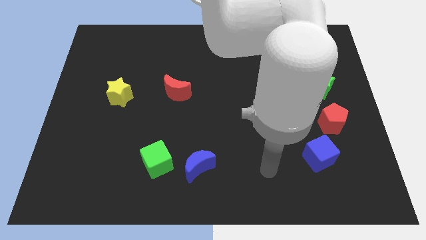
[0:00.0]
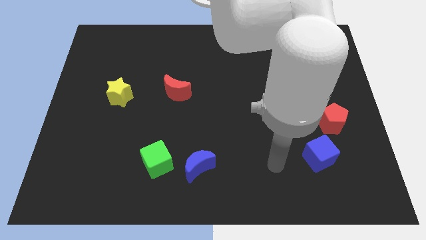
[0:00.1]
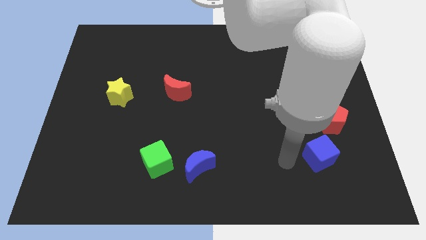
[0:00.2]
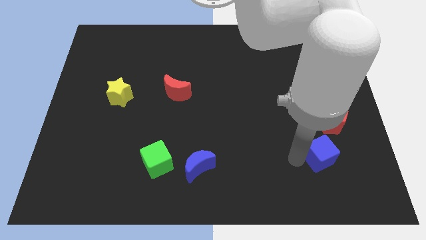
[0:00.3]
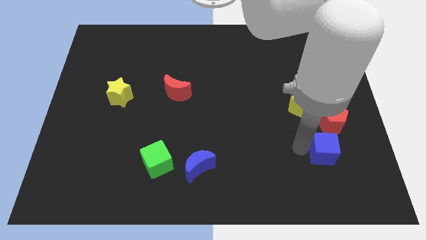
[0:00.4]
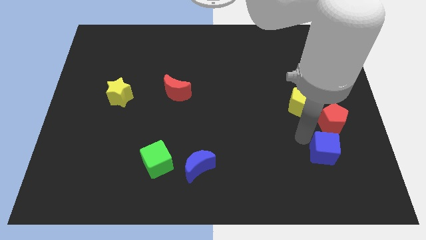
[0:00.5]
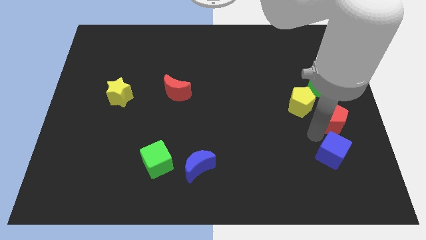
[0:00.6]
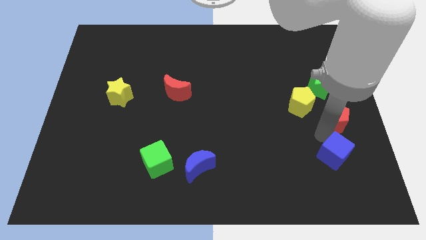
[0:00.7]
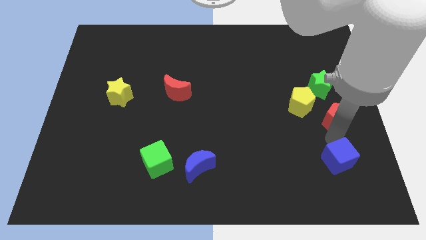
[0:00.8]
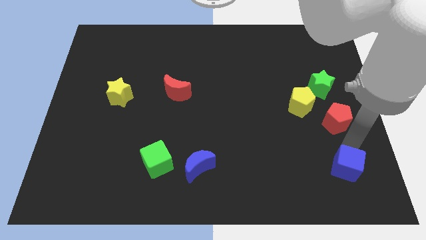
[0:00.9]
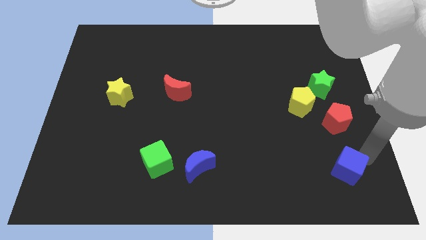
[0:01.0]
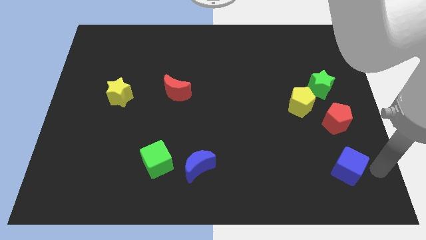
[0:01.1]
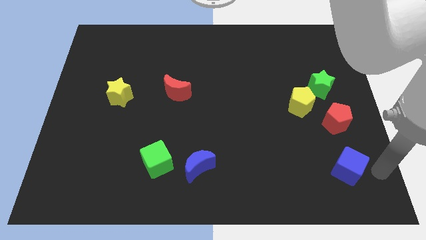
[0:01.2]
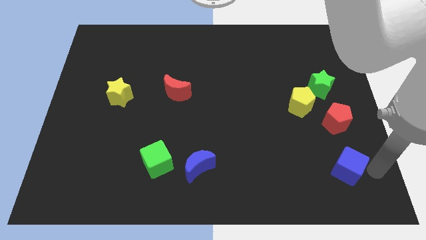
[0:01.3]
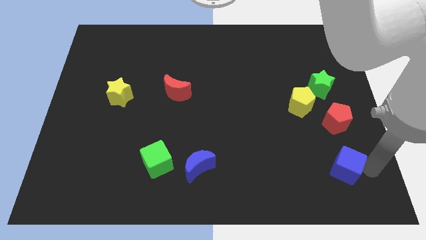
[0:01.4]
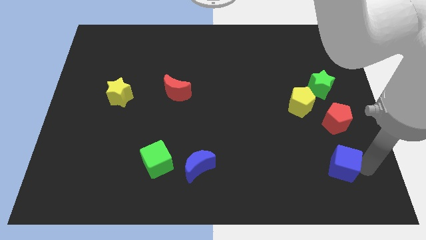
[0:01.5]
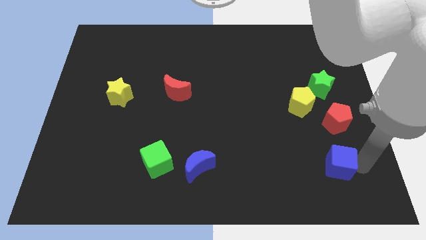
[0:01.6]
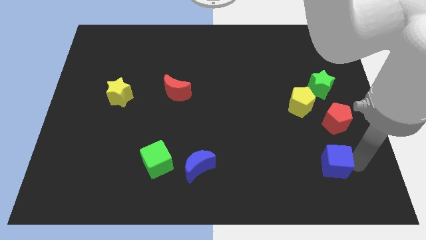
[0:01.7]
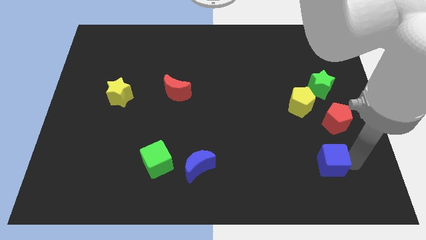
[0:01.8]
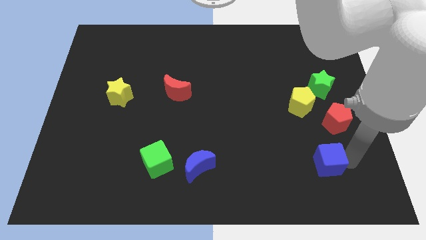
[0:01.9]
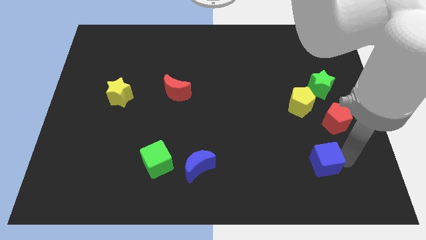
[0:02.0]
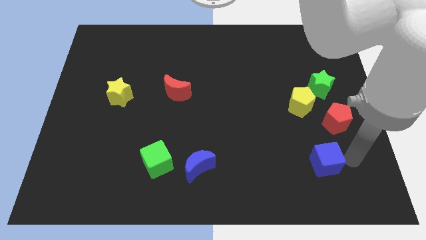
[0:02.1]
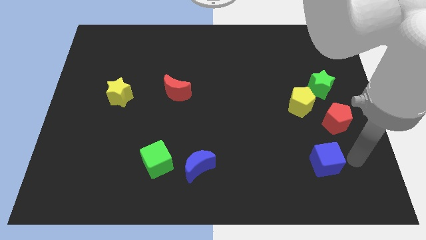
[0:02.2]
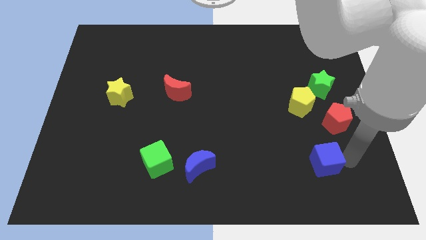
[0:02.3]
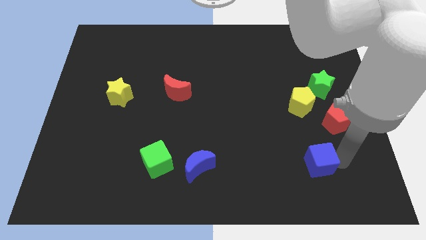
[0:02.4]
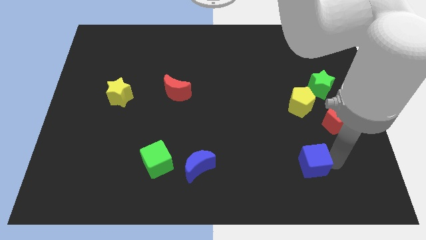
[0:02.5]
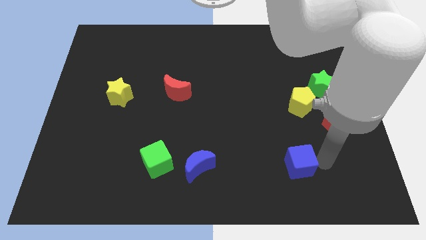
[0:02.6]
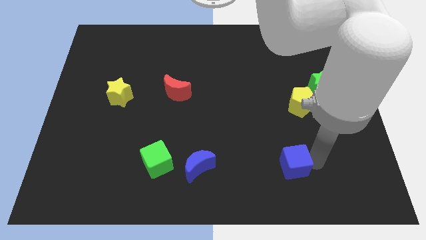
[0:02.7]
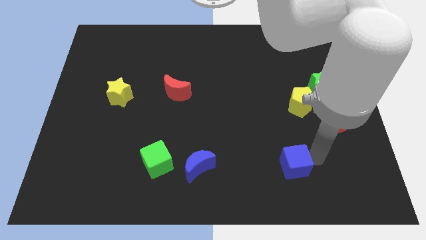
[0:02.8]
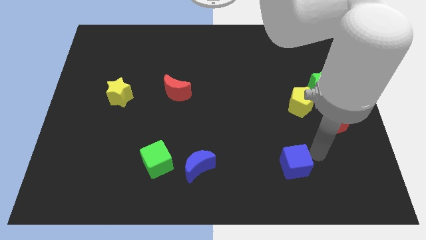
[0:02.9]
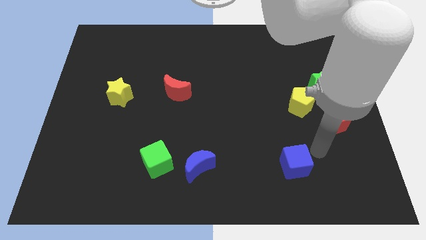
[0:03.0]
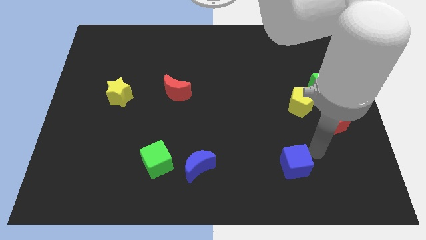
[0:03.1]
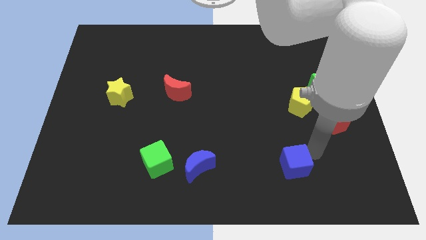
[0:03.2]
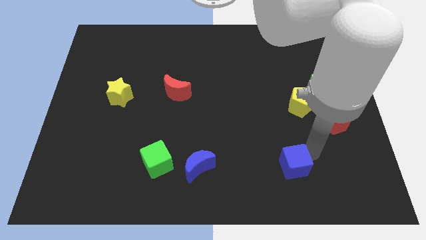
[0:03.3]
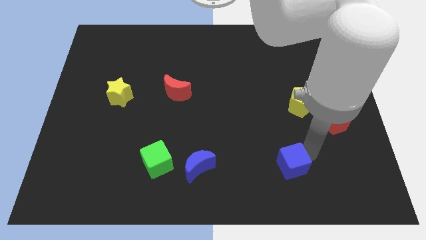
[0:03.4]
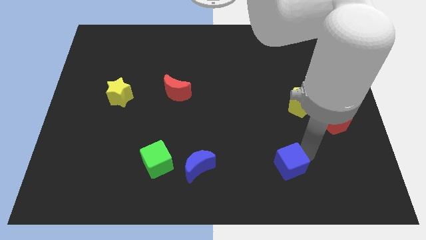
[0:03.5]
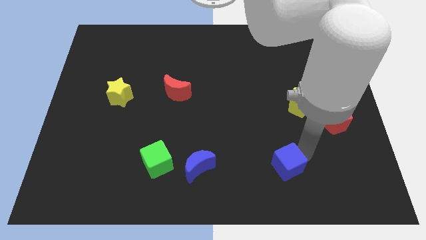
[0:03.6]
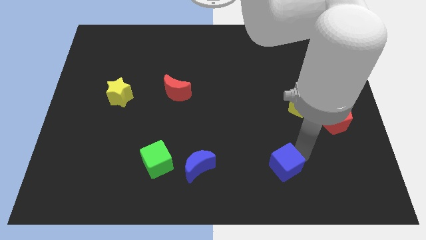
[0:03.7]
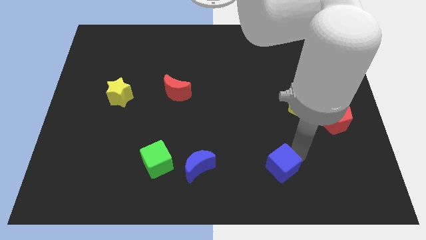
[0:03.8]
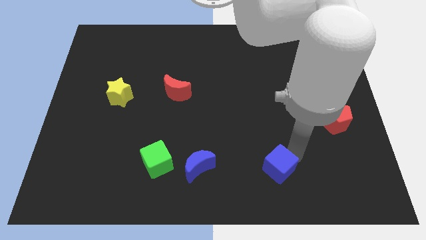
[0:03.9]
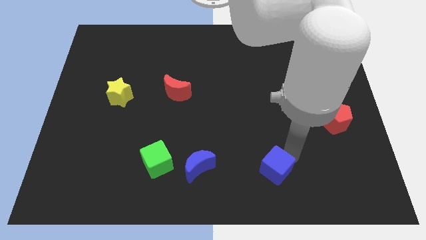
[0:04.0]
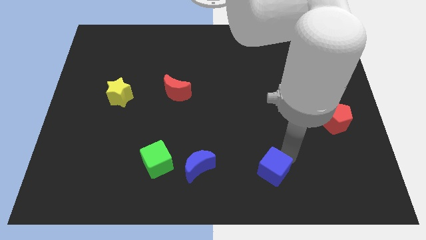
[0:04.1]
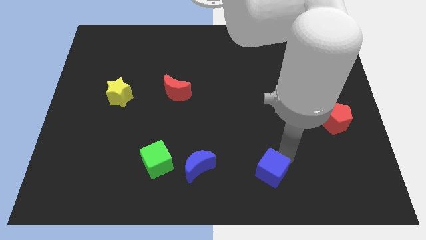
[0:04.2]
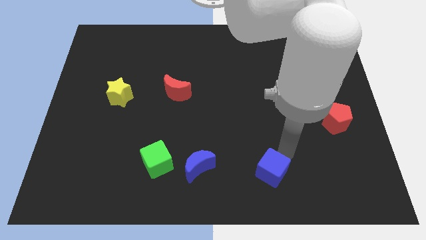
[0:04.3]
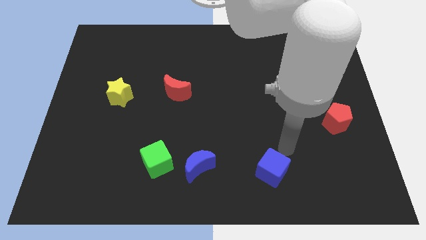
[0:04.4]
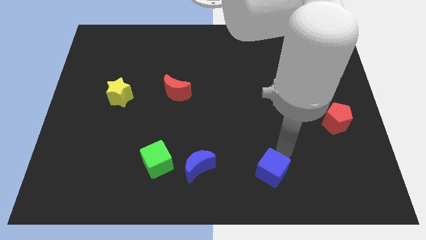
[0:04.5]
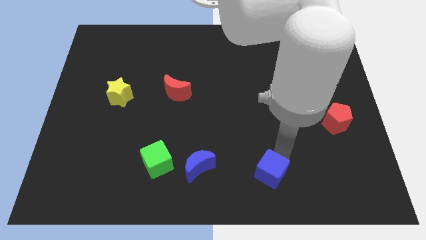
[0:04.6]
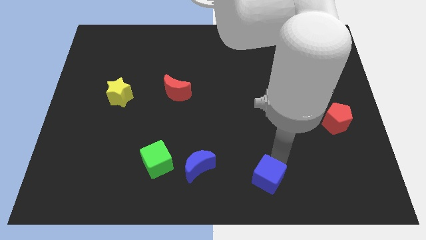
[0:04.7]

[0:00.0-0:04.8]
put the blue cube to the bottom

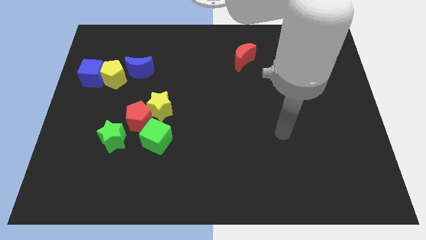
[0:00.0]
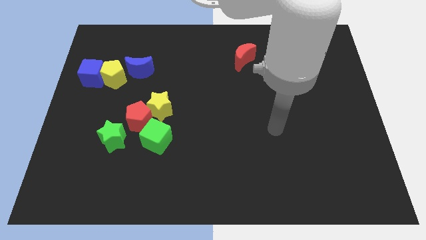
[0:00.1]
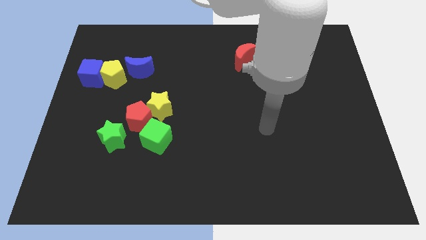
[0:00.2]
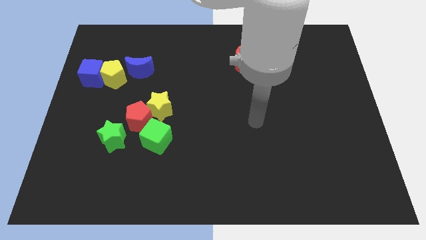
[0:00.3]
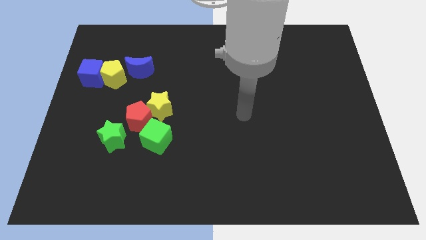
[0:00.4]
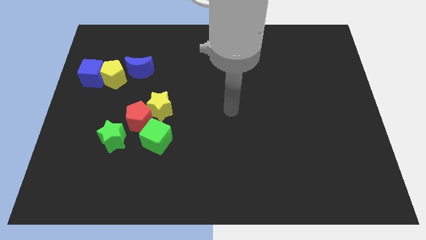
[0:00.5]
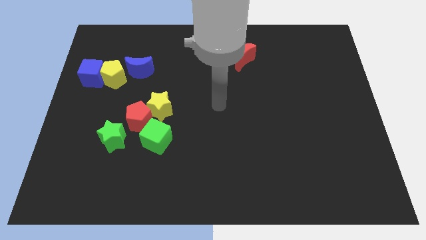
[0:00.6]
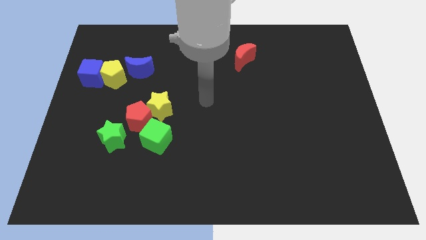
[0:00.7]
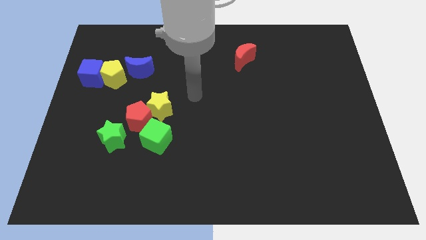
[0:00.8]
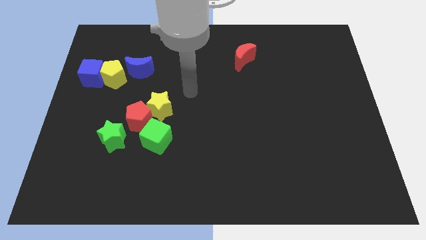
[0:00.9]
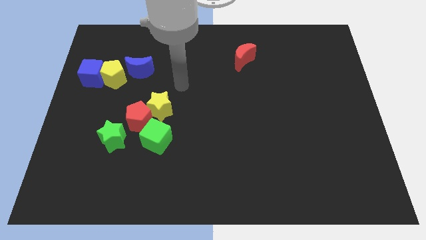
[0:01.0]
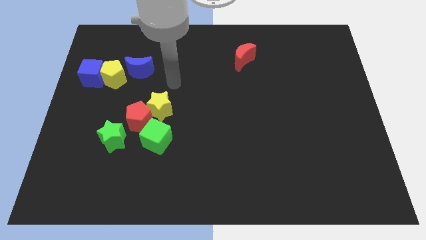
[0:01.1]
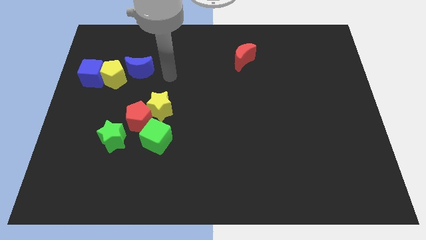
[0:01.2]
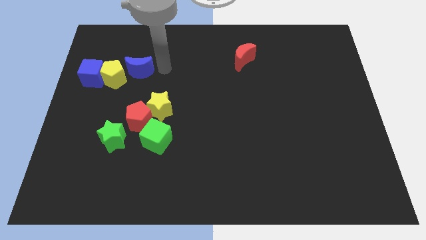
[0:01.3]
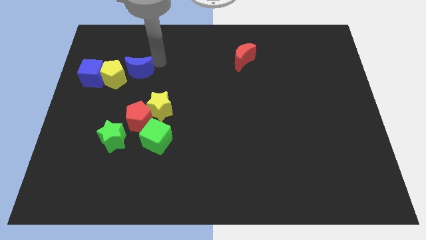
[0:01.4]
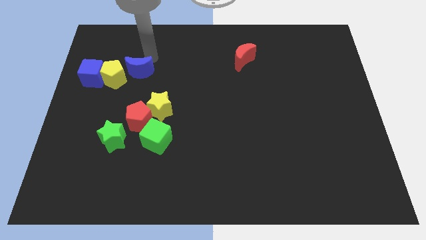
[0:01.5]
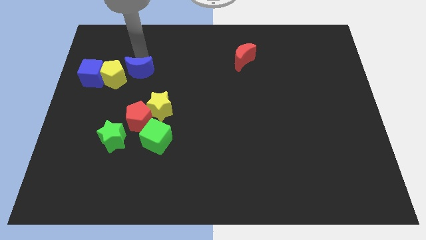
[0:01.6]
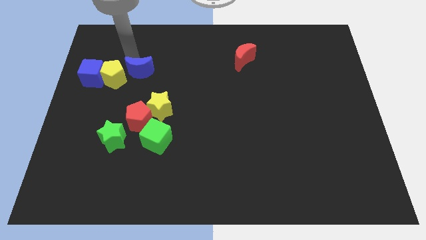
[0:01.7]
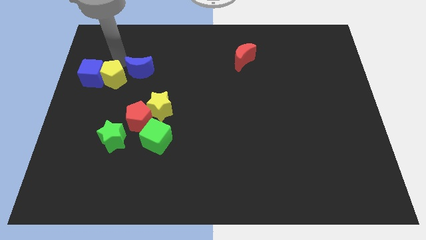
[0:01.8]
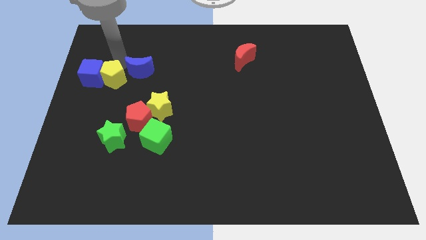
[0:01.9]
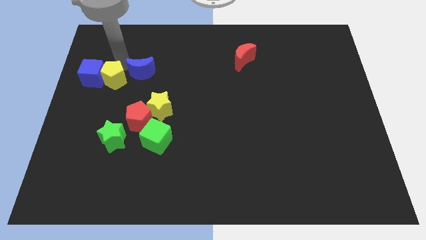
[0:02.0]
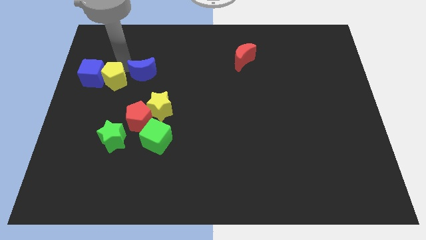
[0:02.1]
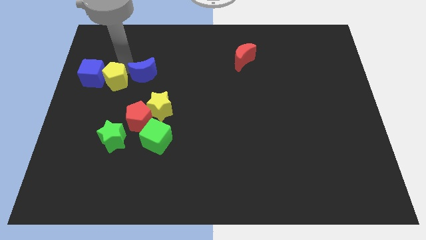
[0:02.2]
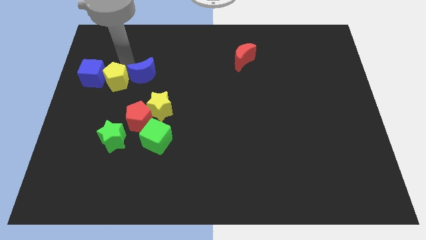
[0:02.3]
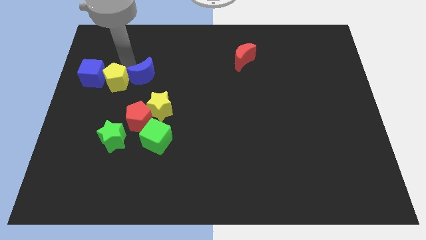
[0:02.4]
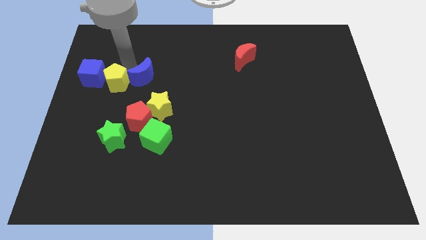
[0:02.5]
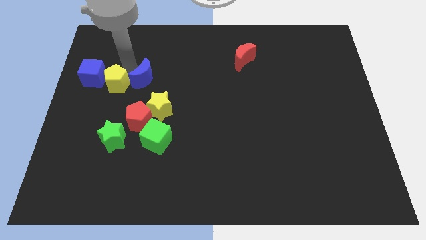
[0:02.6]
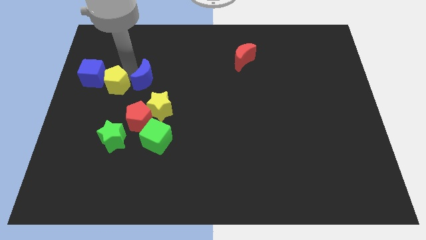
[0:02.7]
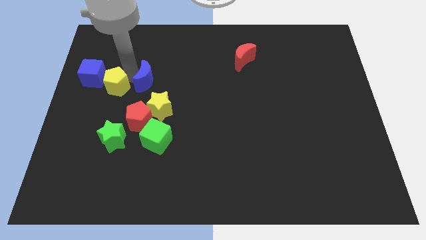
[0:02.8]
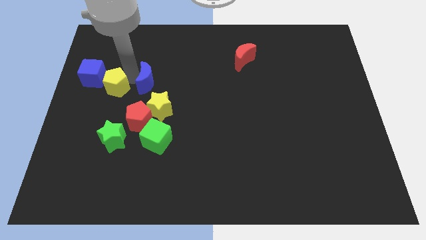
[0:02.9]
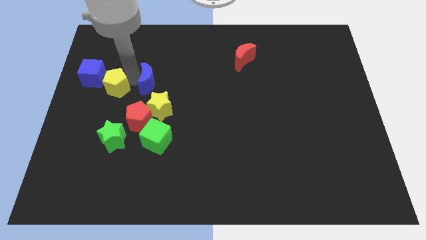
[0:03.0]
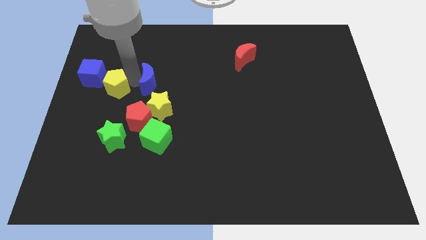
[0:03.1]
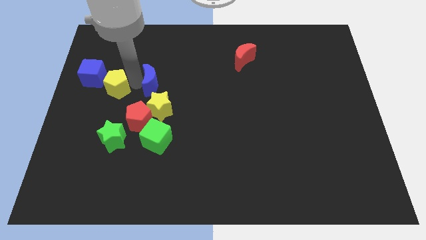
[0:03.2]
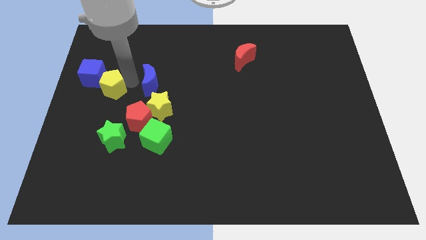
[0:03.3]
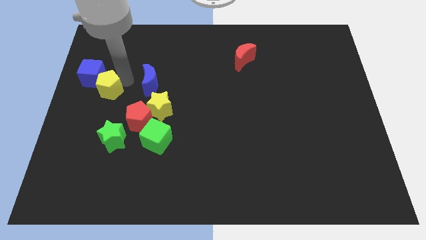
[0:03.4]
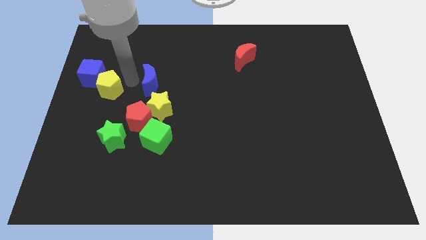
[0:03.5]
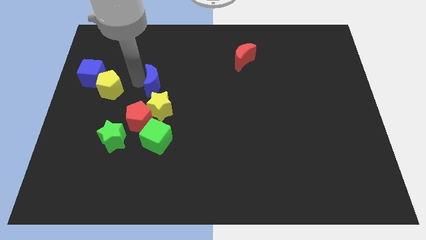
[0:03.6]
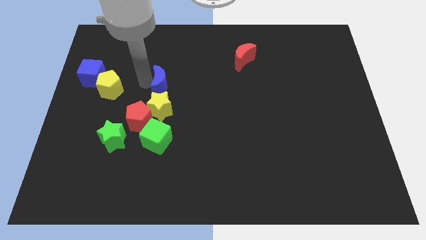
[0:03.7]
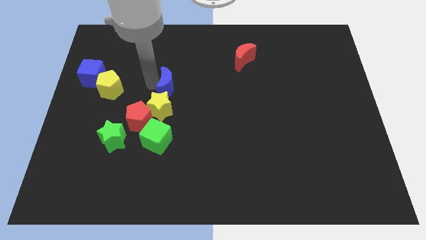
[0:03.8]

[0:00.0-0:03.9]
move the blue moon to the middle of the board
